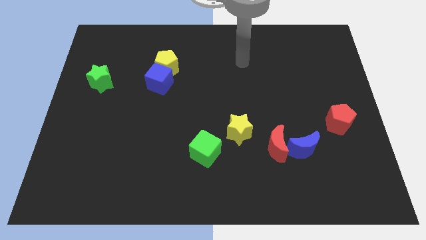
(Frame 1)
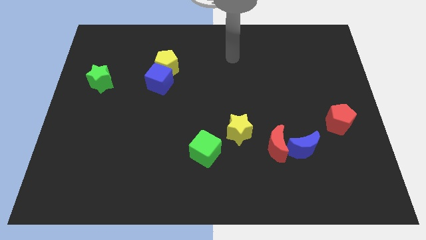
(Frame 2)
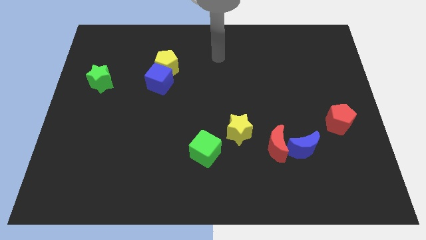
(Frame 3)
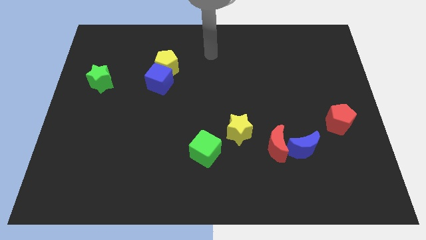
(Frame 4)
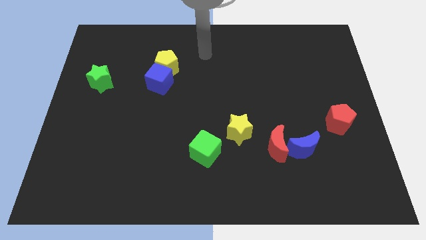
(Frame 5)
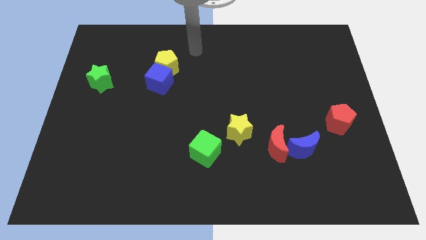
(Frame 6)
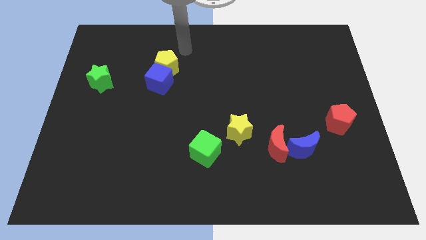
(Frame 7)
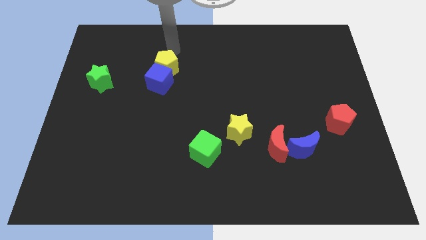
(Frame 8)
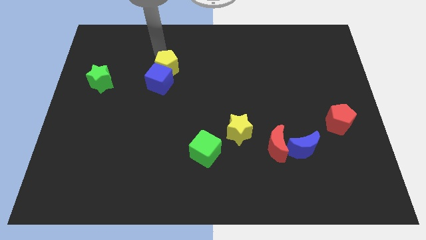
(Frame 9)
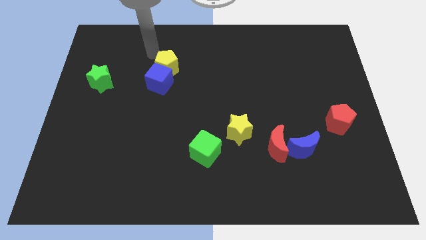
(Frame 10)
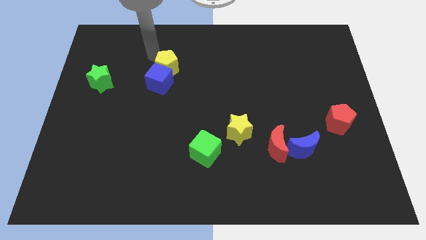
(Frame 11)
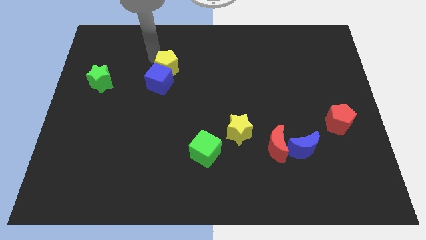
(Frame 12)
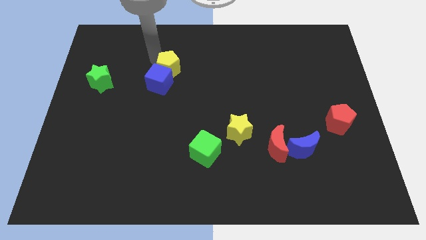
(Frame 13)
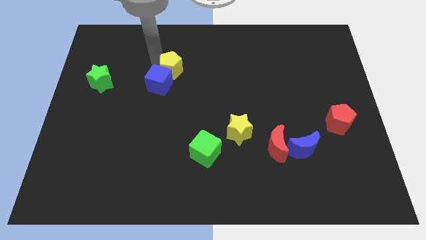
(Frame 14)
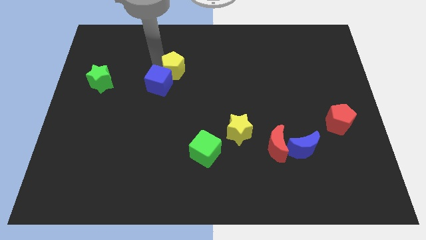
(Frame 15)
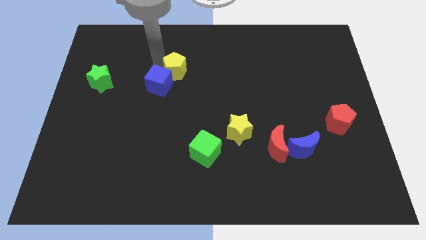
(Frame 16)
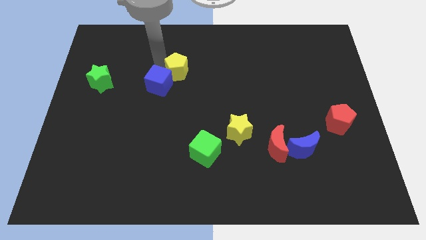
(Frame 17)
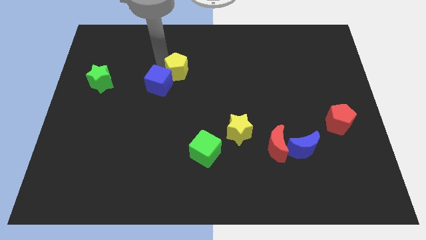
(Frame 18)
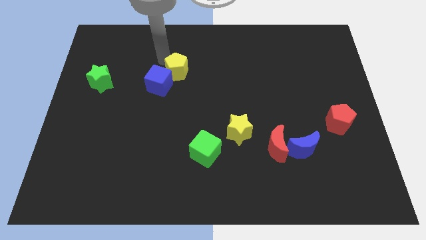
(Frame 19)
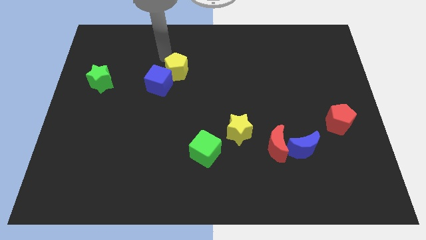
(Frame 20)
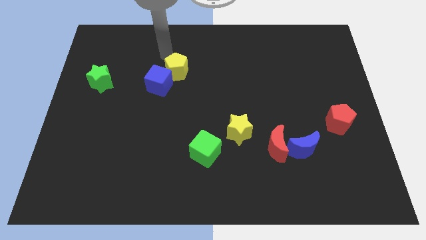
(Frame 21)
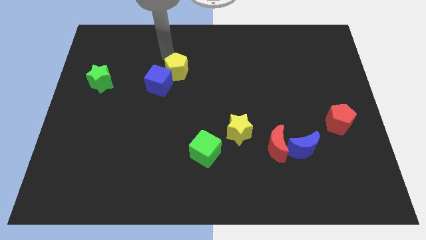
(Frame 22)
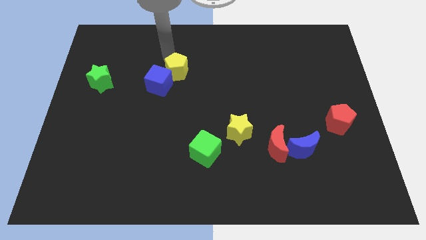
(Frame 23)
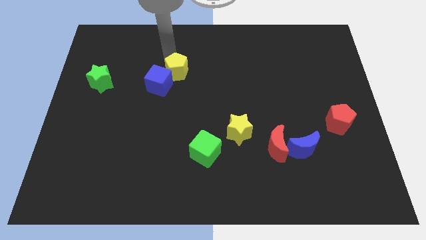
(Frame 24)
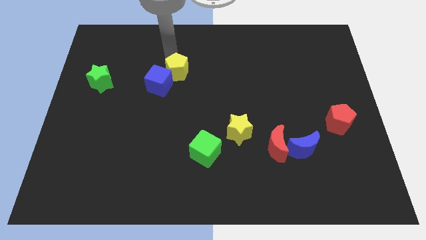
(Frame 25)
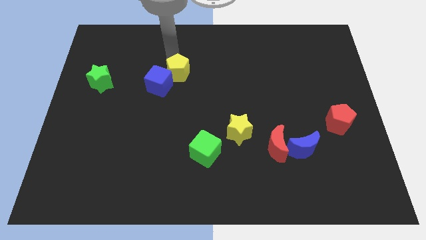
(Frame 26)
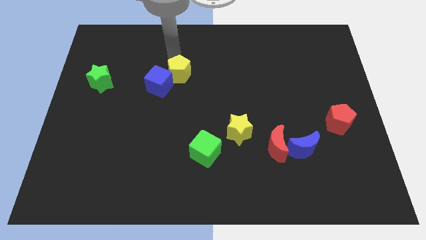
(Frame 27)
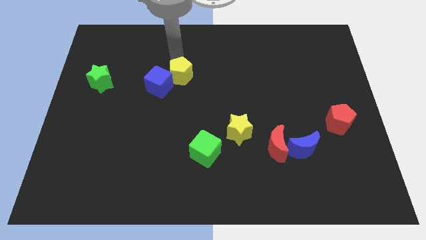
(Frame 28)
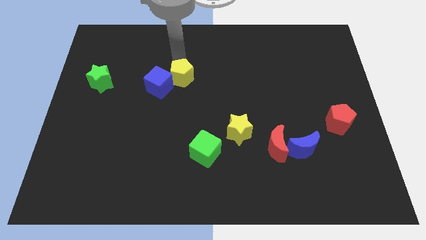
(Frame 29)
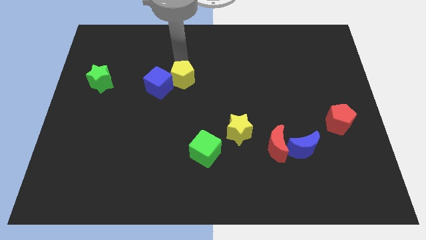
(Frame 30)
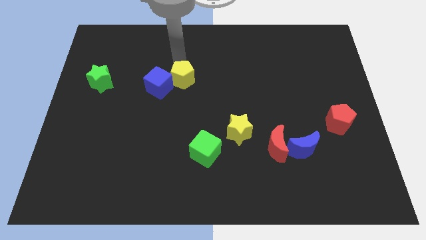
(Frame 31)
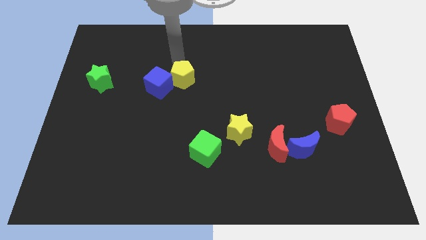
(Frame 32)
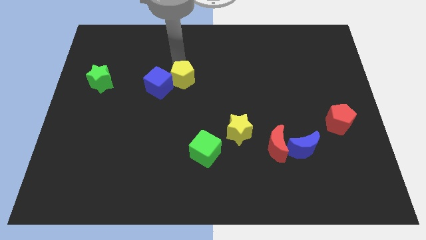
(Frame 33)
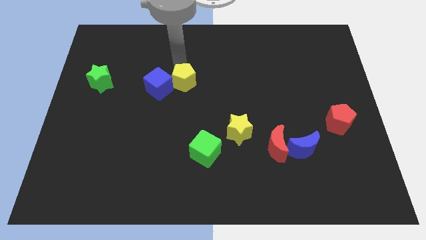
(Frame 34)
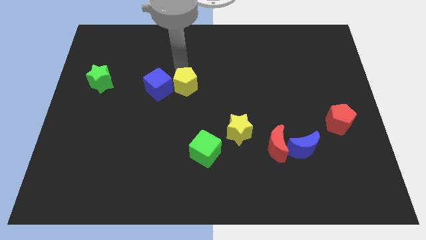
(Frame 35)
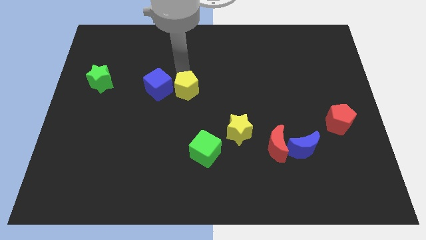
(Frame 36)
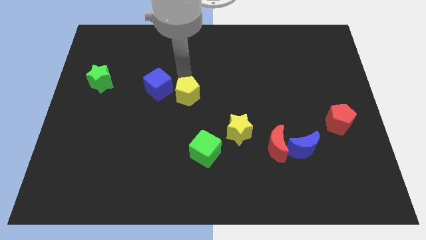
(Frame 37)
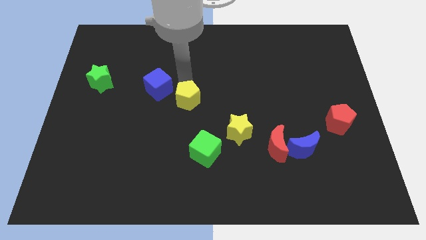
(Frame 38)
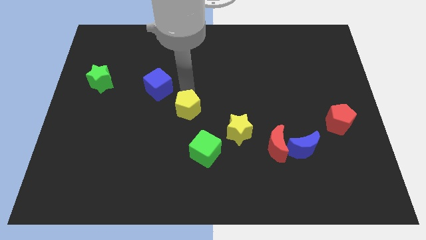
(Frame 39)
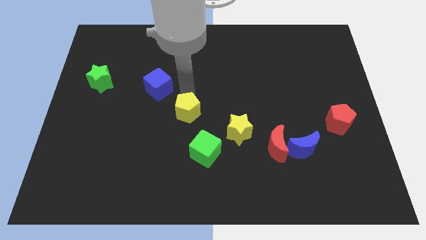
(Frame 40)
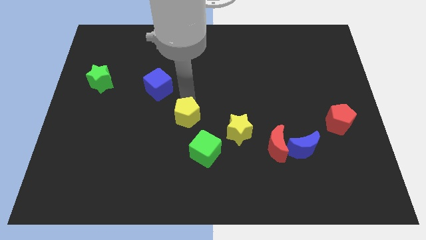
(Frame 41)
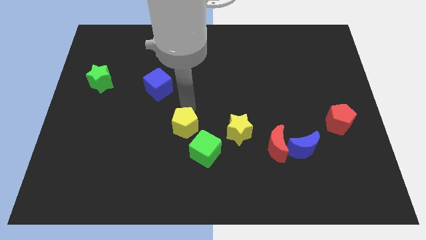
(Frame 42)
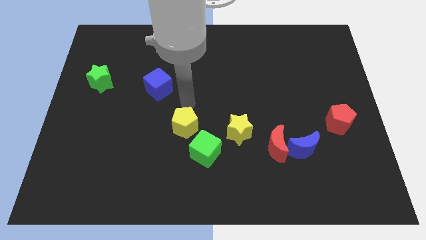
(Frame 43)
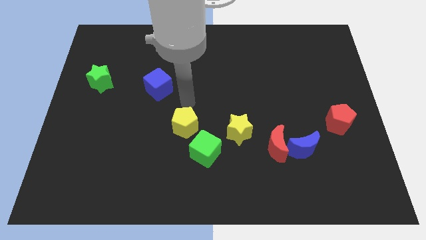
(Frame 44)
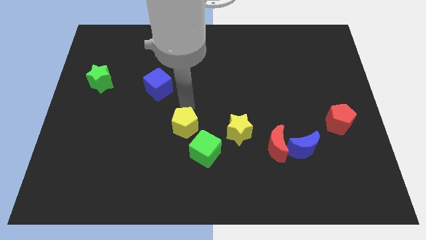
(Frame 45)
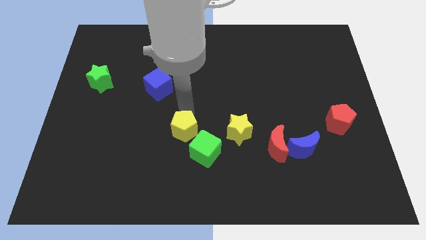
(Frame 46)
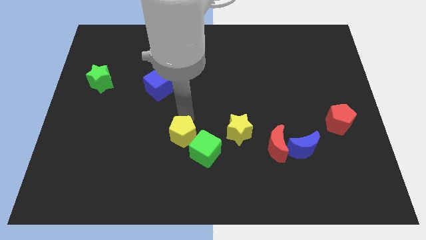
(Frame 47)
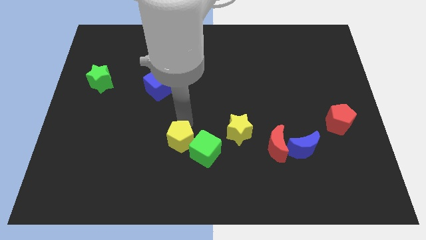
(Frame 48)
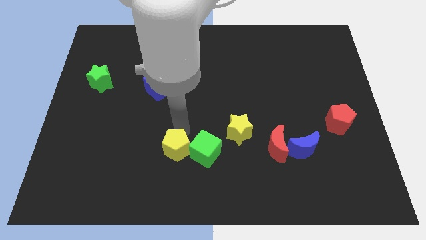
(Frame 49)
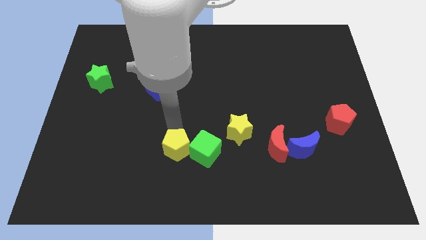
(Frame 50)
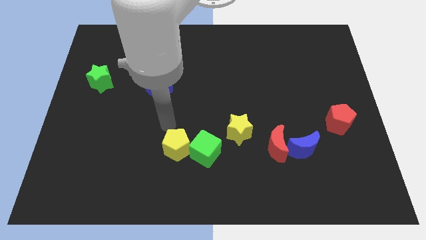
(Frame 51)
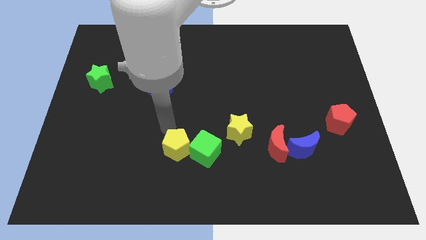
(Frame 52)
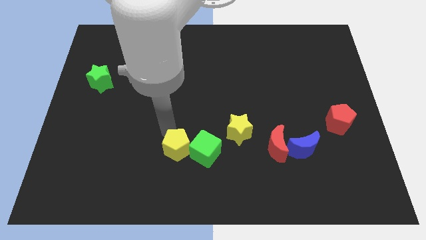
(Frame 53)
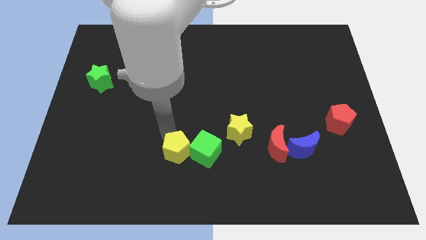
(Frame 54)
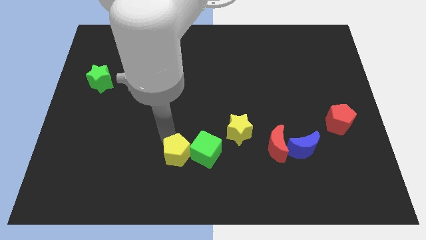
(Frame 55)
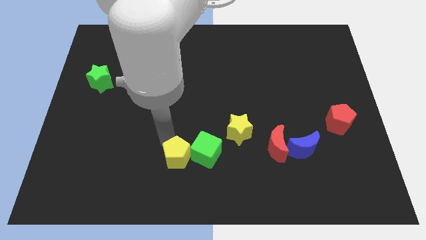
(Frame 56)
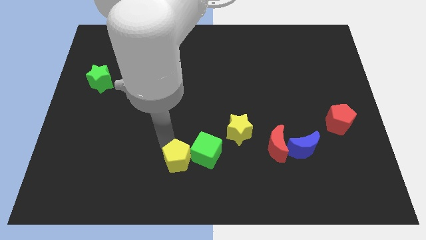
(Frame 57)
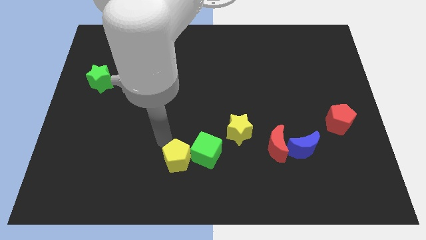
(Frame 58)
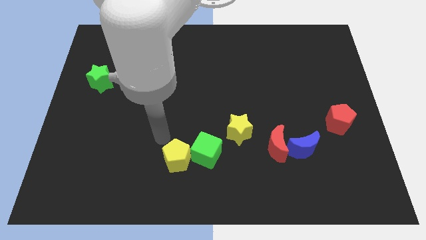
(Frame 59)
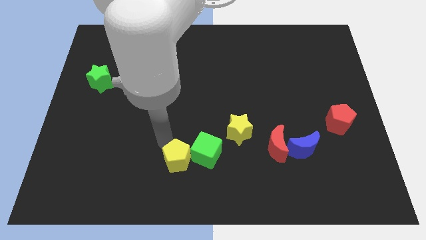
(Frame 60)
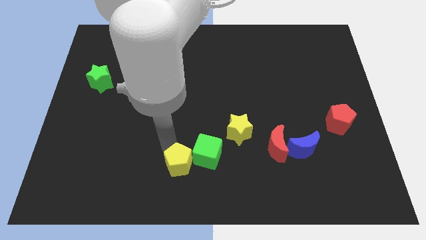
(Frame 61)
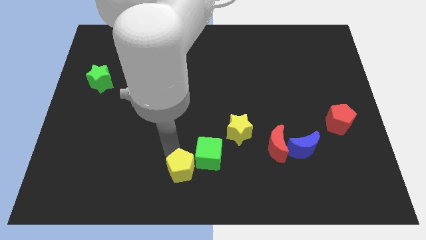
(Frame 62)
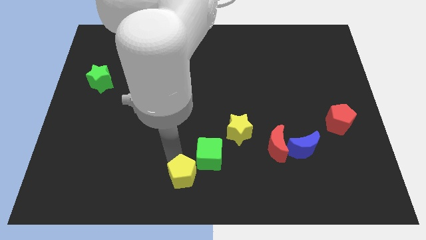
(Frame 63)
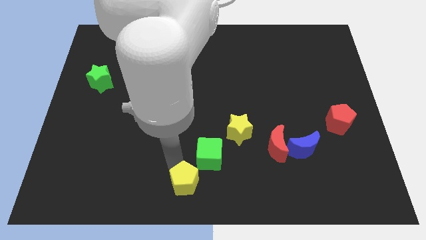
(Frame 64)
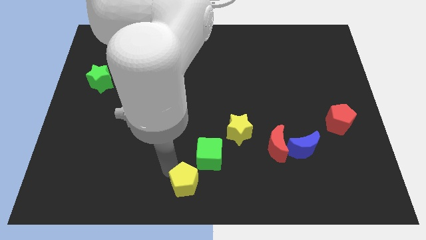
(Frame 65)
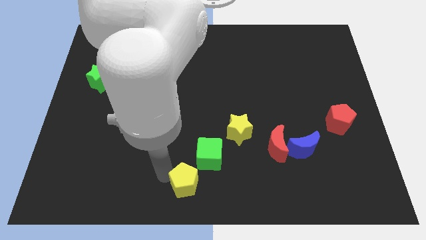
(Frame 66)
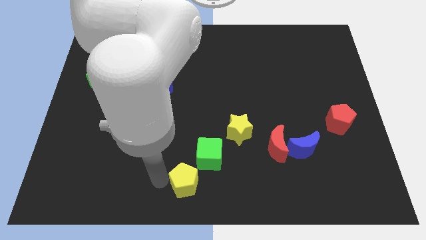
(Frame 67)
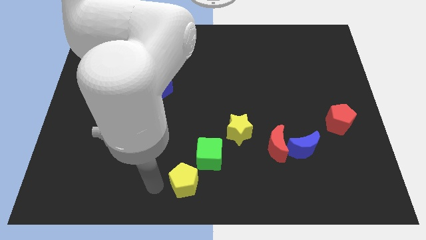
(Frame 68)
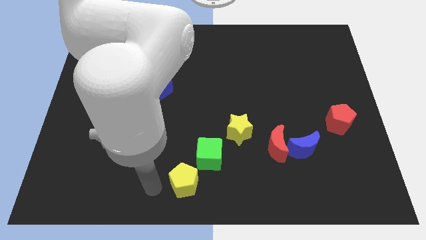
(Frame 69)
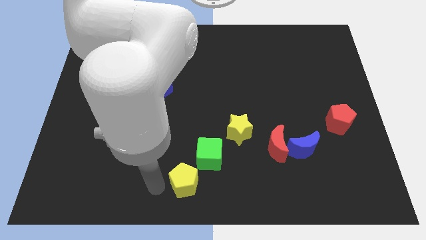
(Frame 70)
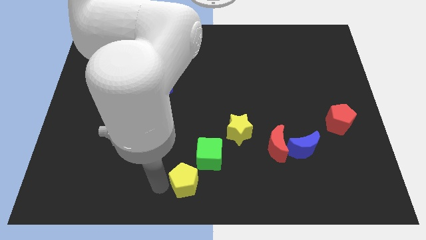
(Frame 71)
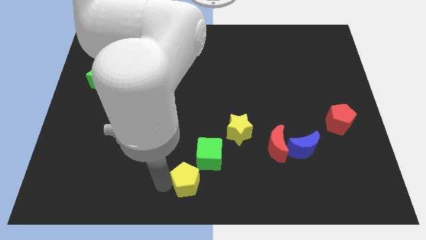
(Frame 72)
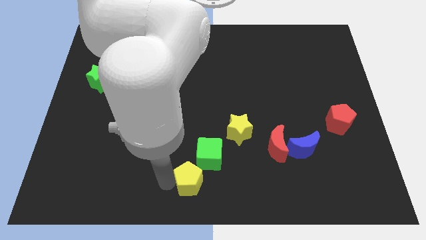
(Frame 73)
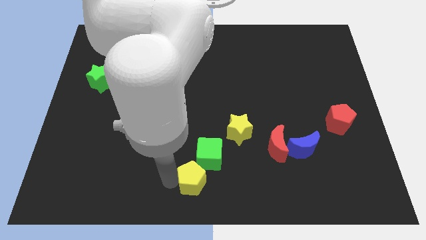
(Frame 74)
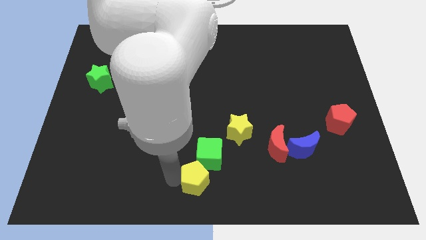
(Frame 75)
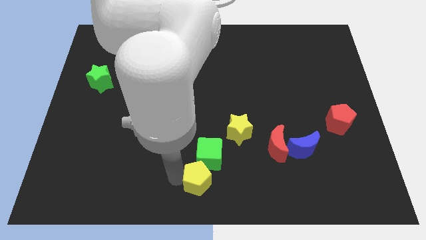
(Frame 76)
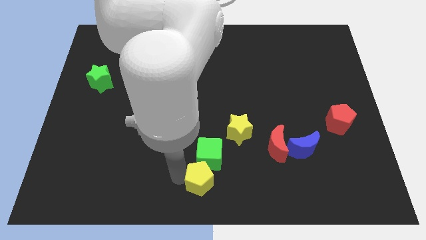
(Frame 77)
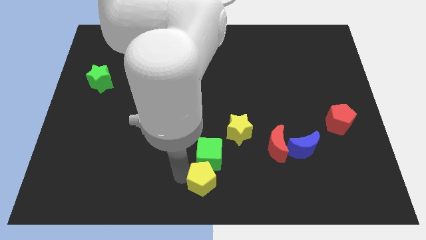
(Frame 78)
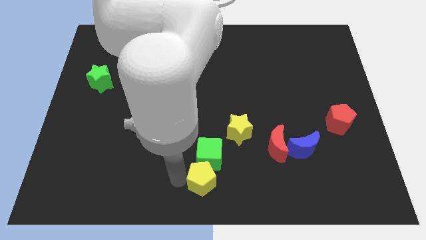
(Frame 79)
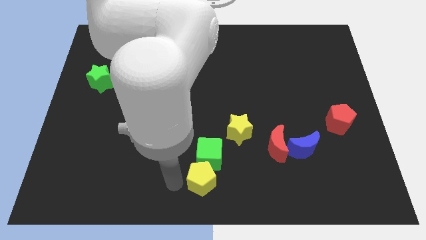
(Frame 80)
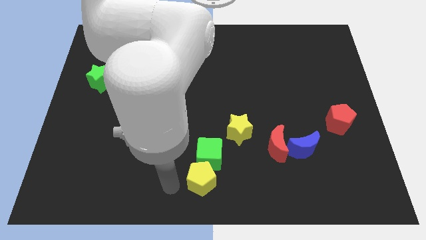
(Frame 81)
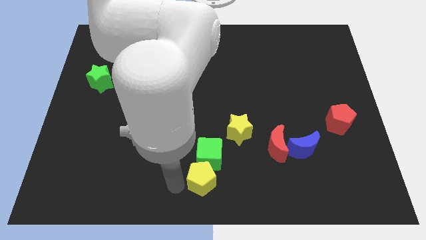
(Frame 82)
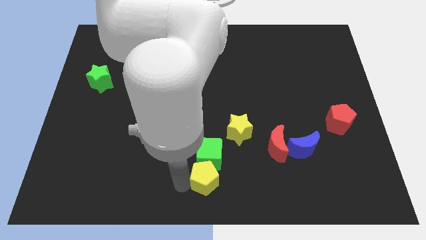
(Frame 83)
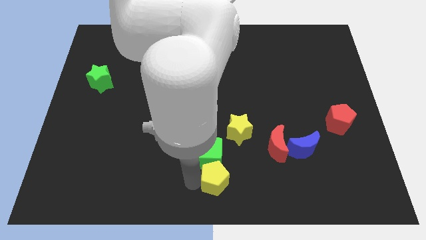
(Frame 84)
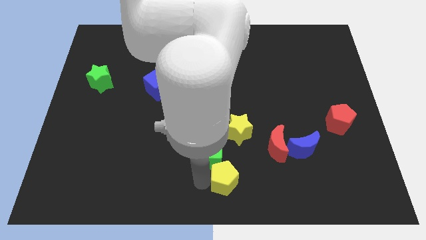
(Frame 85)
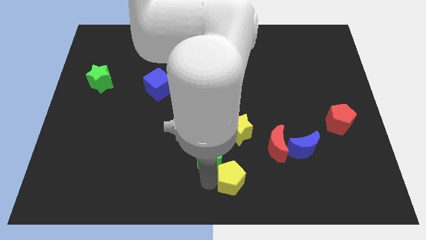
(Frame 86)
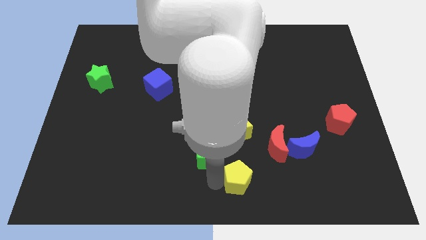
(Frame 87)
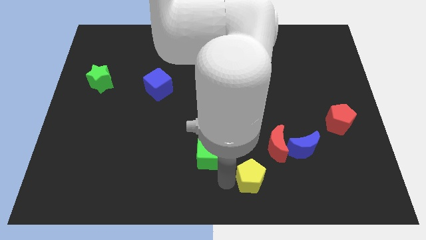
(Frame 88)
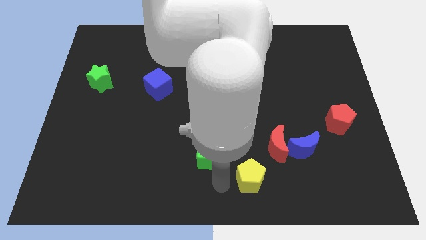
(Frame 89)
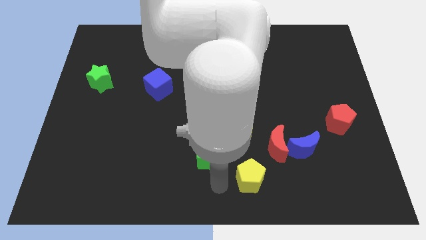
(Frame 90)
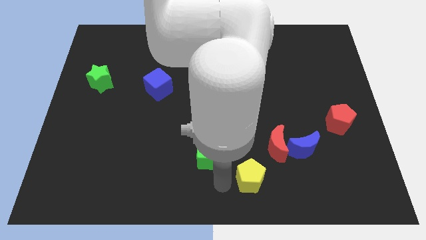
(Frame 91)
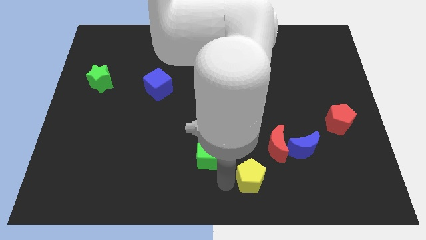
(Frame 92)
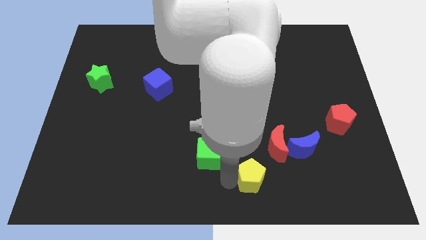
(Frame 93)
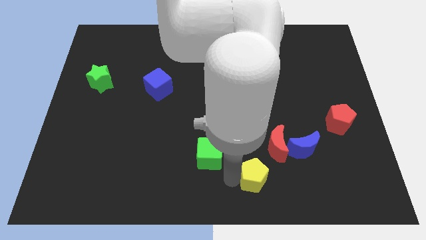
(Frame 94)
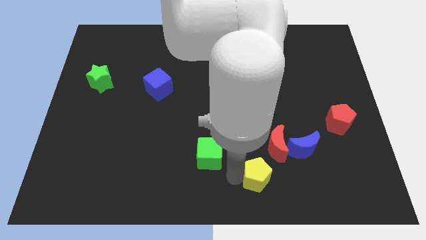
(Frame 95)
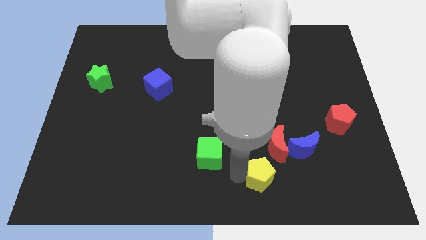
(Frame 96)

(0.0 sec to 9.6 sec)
put the yellow pentagon diagonally down and to the left of the blue moon
